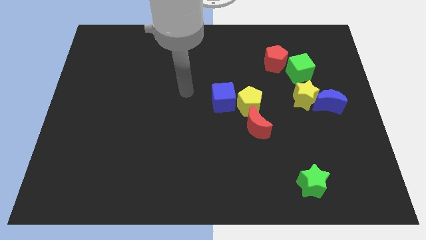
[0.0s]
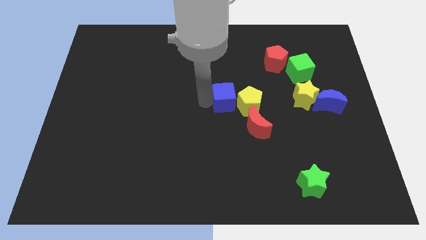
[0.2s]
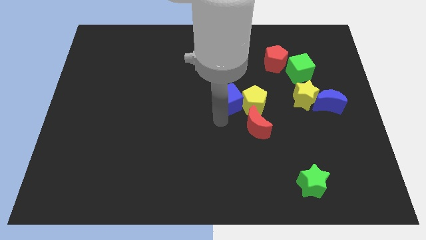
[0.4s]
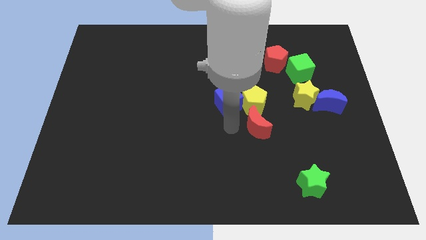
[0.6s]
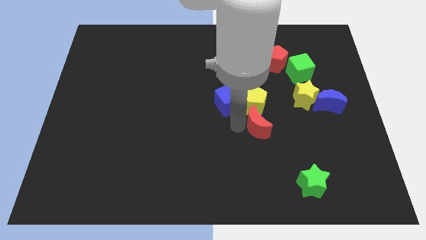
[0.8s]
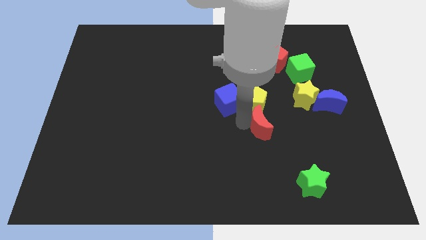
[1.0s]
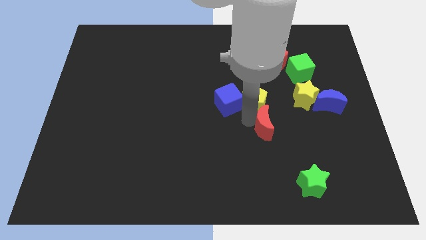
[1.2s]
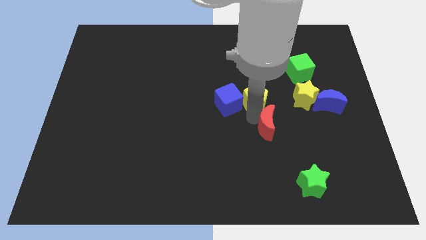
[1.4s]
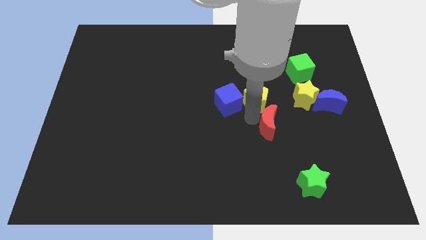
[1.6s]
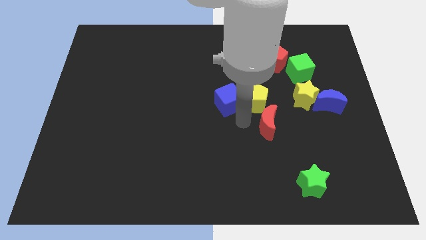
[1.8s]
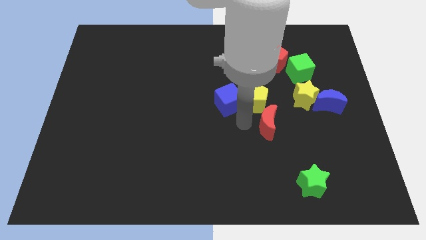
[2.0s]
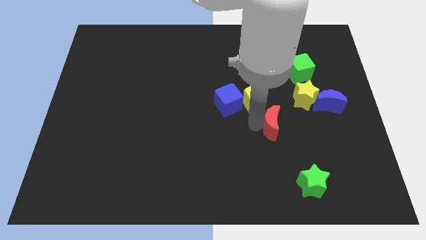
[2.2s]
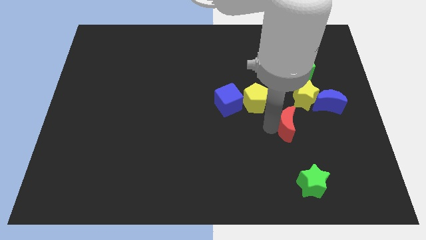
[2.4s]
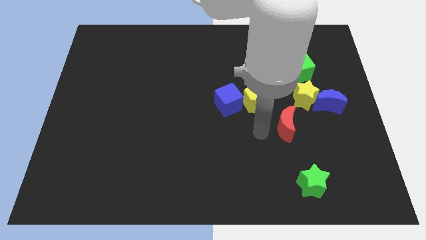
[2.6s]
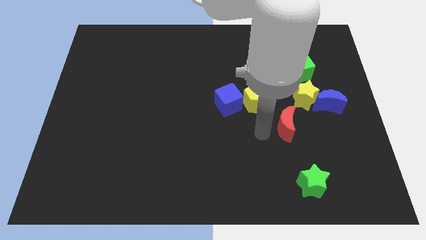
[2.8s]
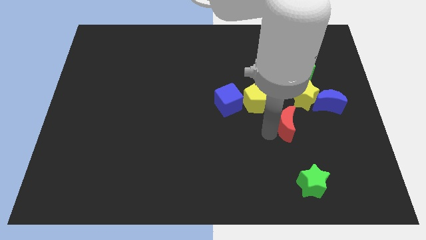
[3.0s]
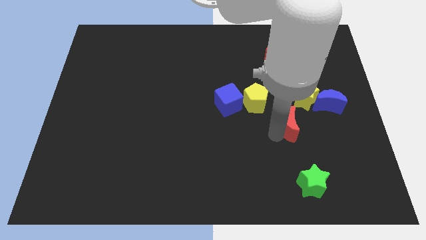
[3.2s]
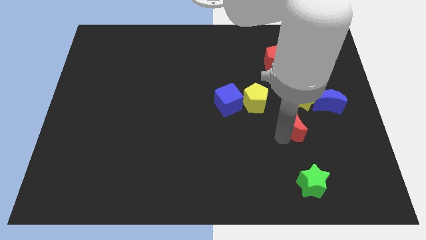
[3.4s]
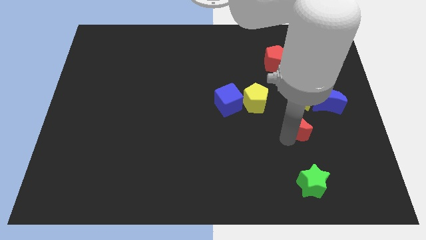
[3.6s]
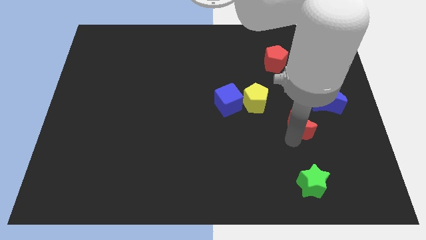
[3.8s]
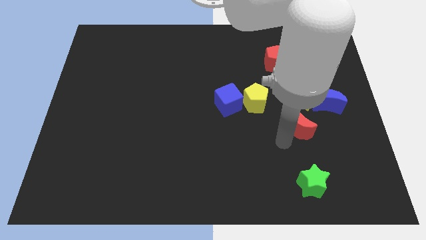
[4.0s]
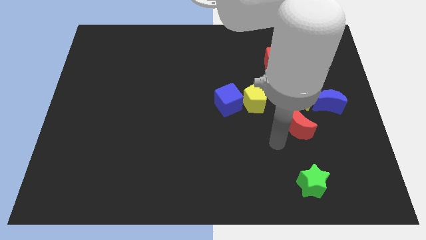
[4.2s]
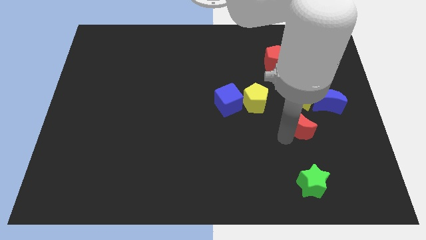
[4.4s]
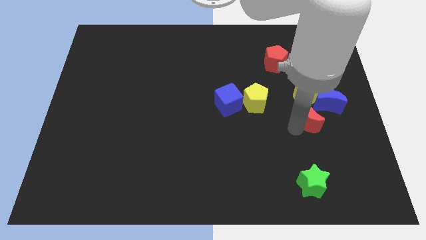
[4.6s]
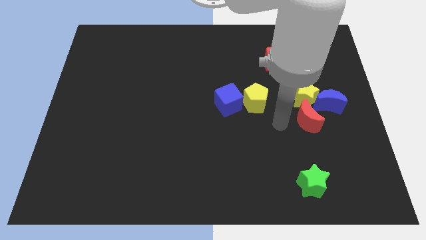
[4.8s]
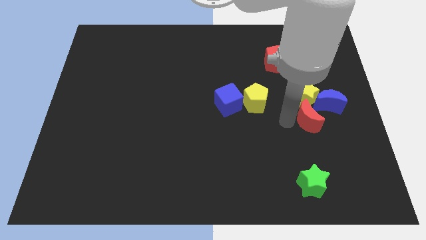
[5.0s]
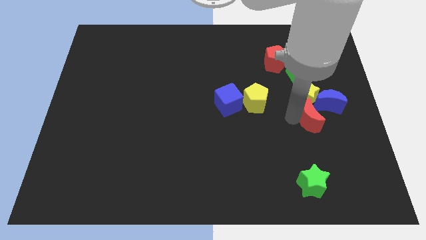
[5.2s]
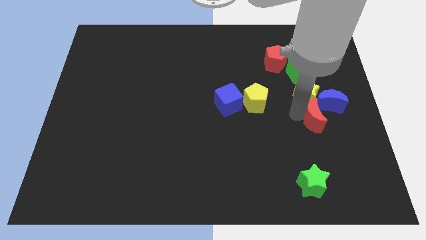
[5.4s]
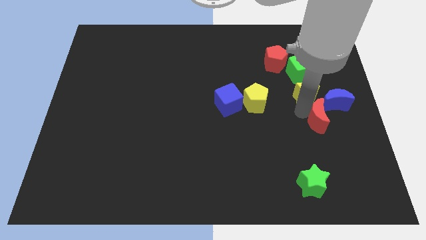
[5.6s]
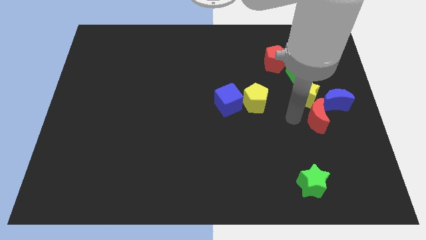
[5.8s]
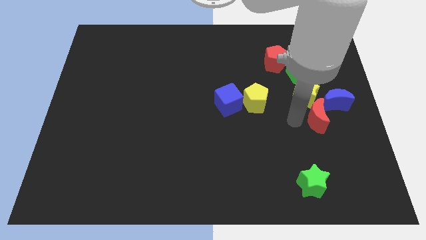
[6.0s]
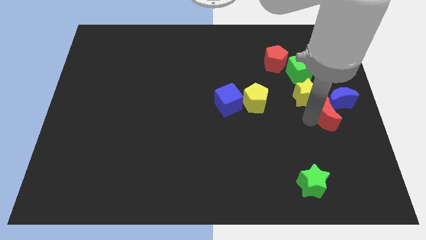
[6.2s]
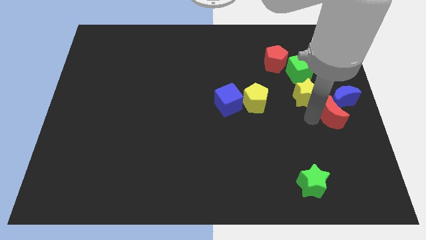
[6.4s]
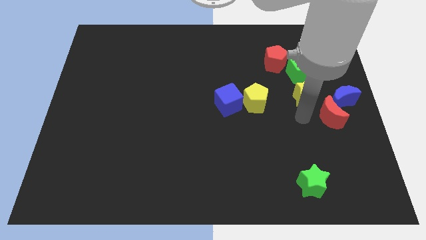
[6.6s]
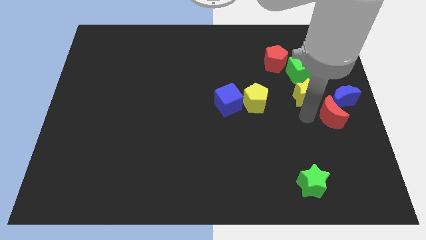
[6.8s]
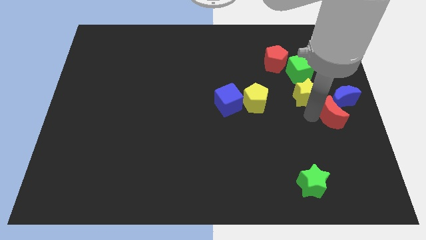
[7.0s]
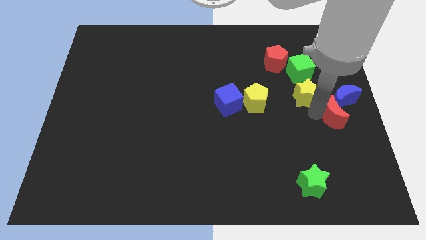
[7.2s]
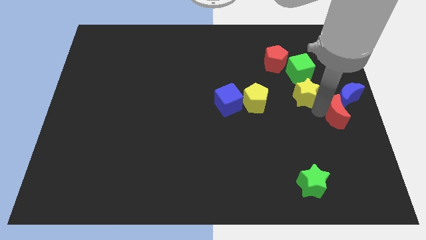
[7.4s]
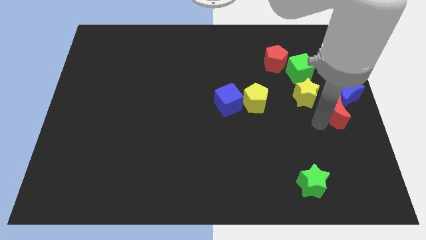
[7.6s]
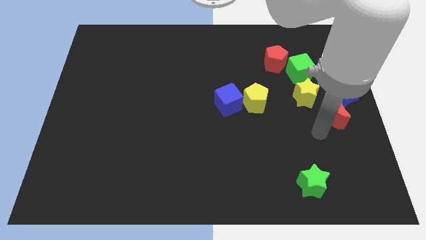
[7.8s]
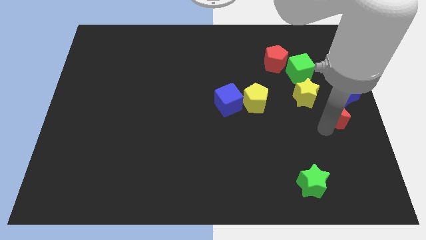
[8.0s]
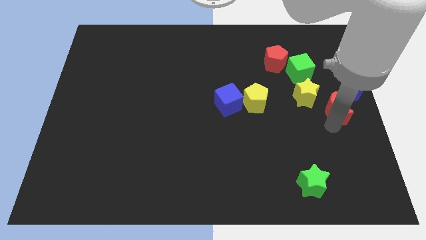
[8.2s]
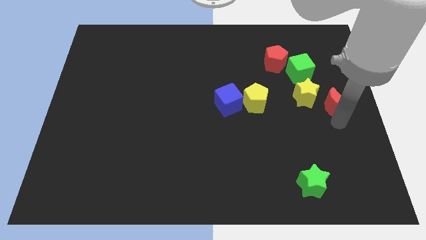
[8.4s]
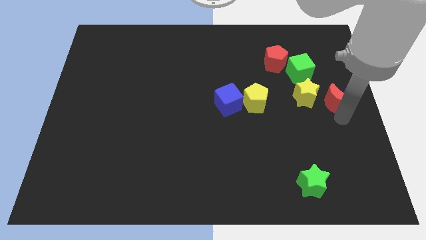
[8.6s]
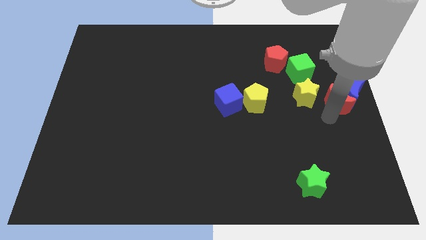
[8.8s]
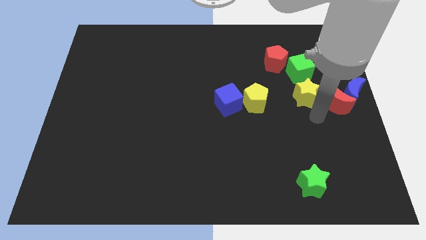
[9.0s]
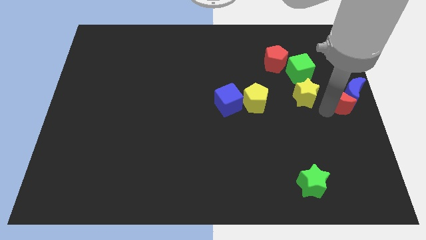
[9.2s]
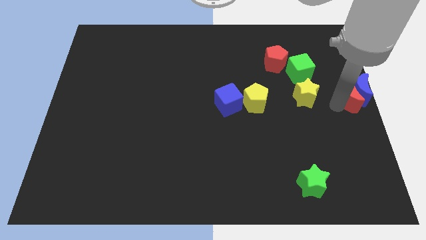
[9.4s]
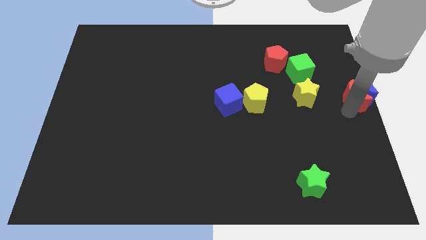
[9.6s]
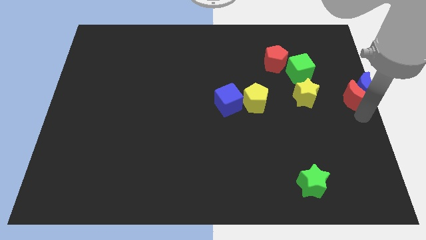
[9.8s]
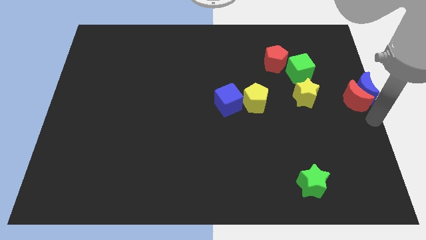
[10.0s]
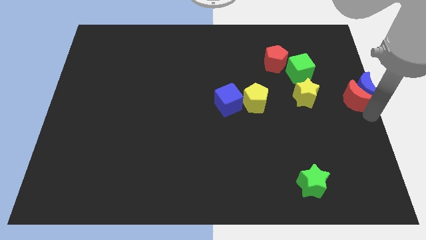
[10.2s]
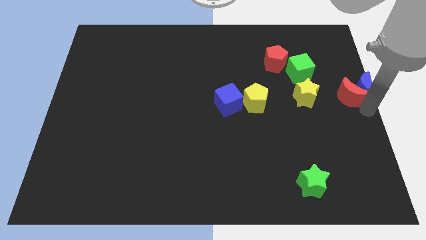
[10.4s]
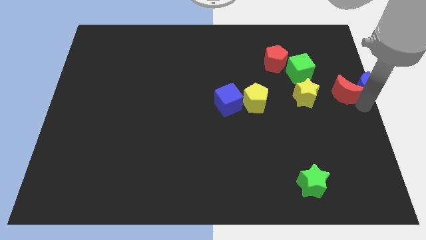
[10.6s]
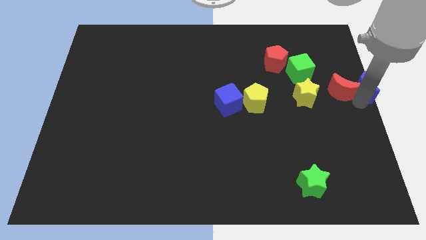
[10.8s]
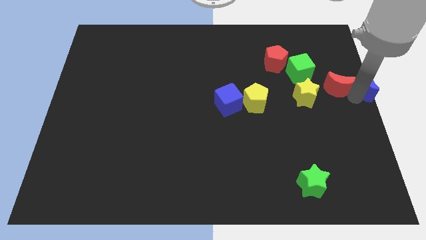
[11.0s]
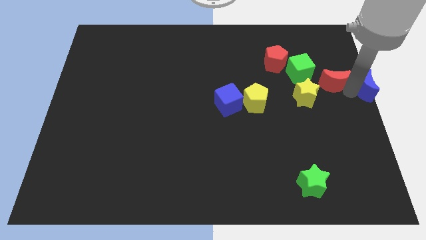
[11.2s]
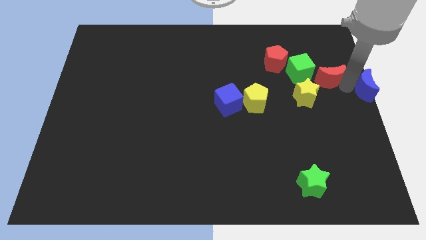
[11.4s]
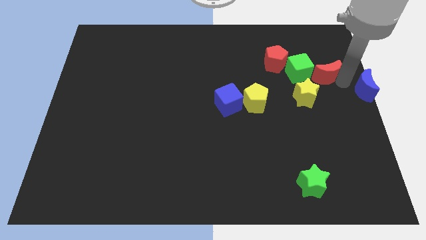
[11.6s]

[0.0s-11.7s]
put the red moon to the right of the red pentagon

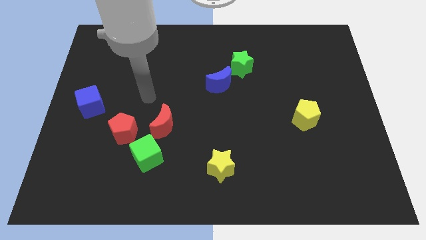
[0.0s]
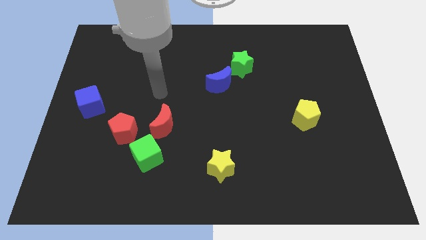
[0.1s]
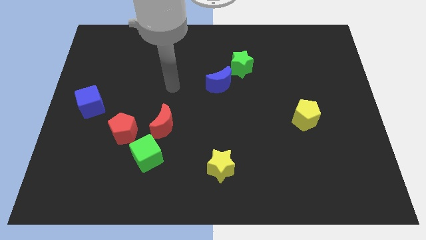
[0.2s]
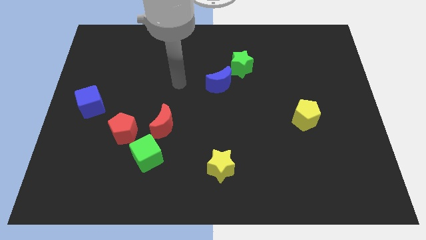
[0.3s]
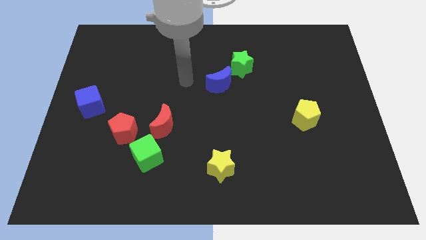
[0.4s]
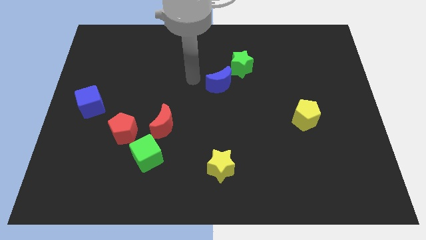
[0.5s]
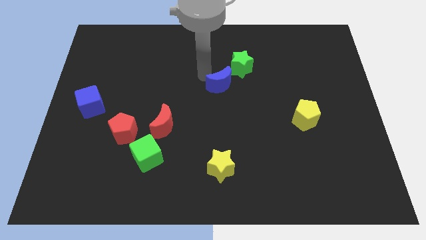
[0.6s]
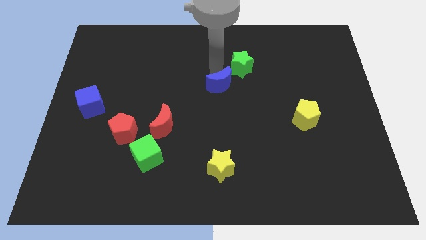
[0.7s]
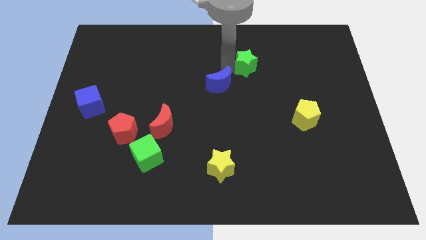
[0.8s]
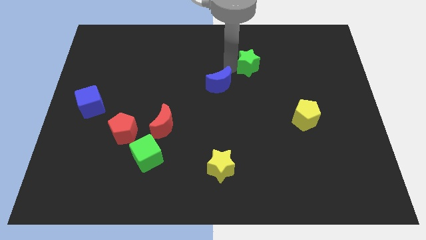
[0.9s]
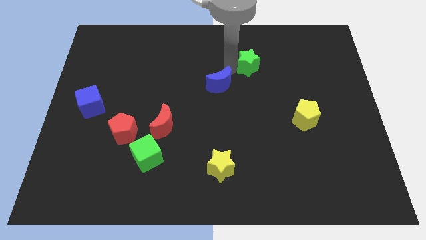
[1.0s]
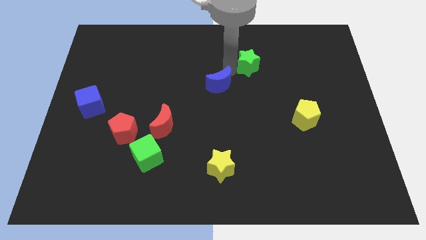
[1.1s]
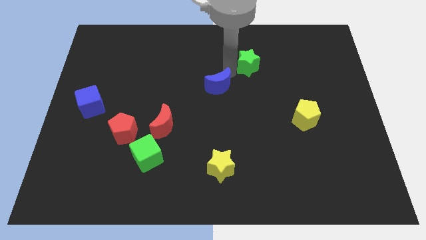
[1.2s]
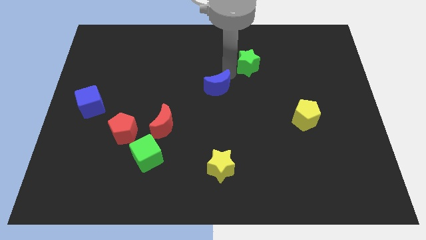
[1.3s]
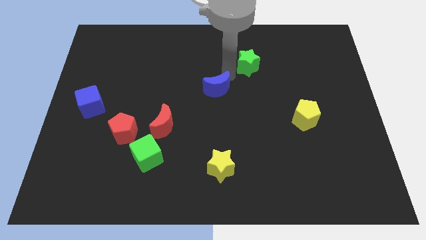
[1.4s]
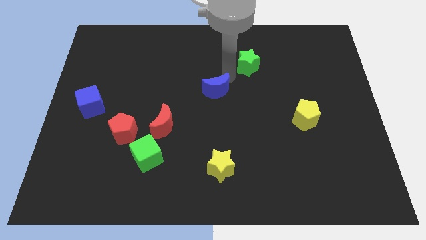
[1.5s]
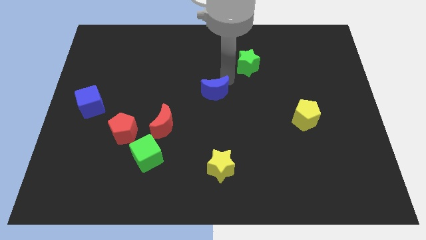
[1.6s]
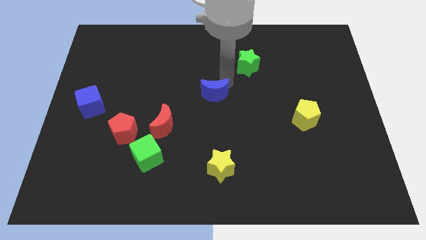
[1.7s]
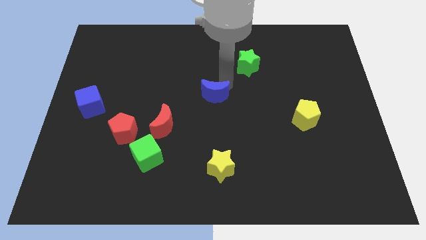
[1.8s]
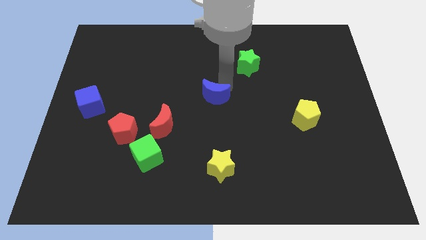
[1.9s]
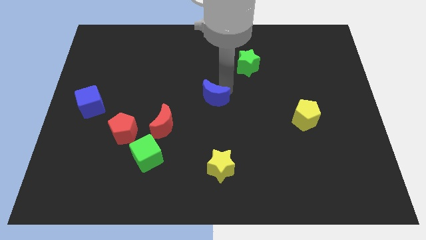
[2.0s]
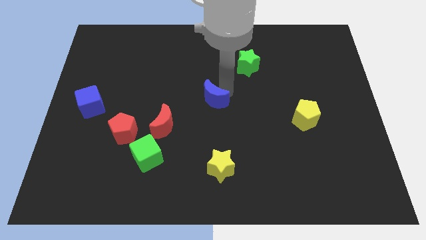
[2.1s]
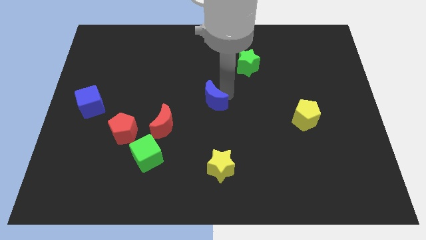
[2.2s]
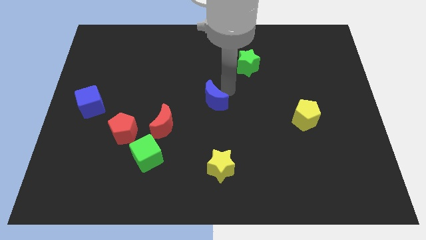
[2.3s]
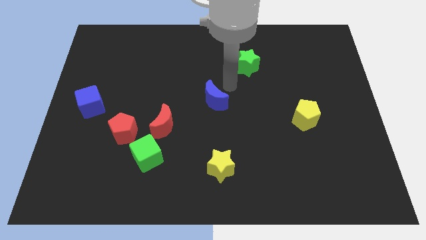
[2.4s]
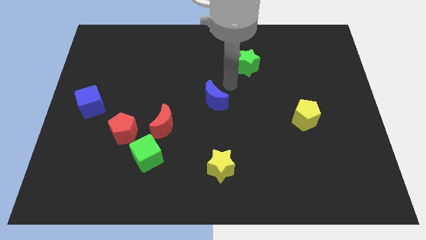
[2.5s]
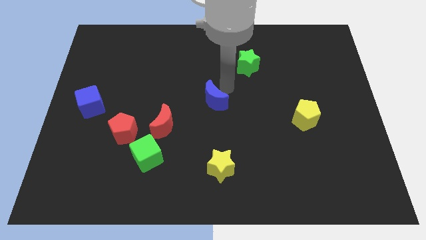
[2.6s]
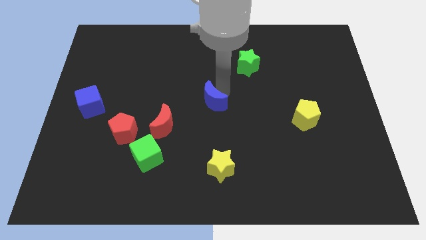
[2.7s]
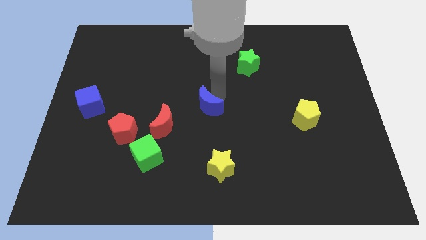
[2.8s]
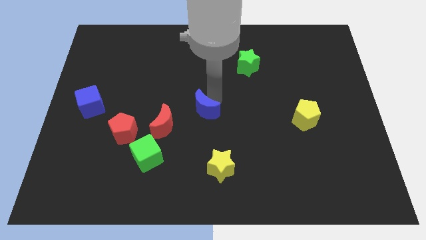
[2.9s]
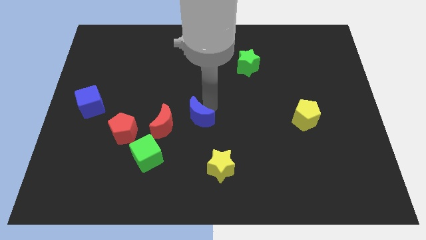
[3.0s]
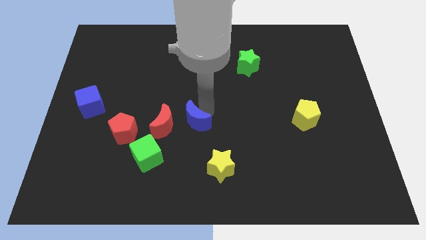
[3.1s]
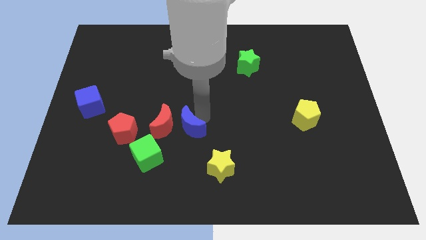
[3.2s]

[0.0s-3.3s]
move the blue moon right of the red pentagon
